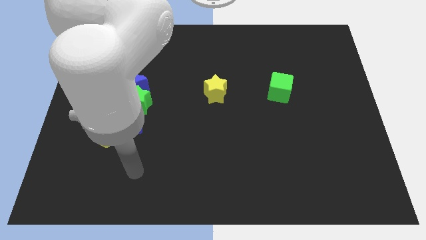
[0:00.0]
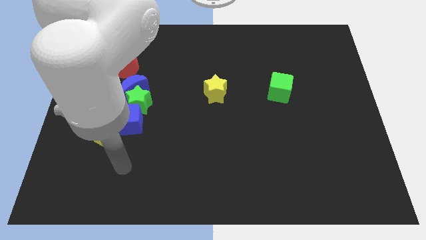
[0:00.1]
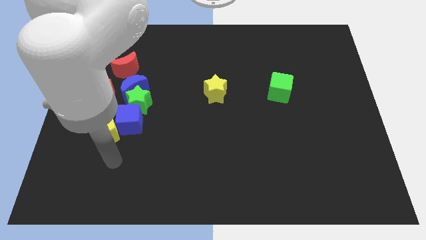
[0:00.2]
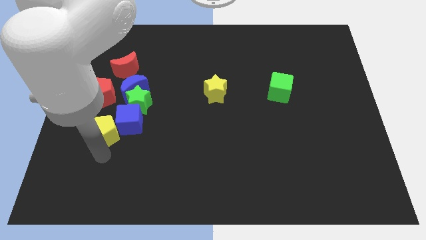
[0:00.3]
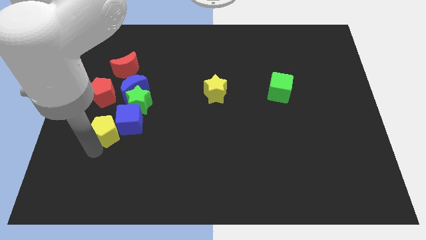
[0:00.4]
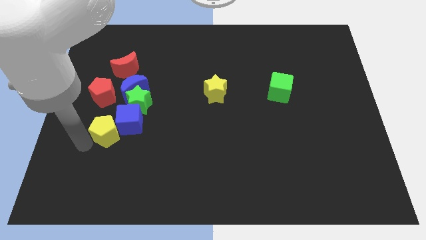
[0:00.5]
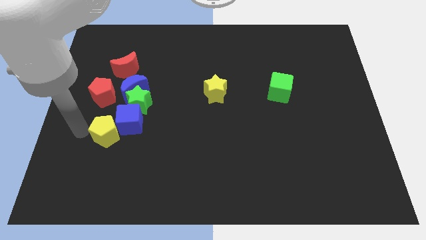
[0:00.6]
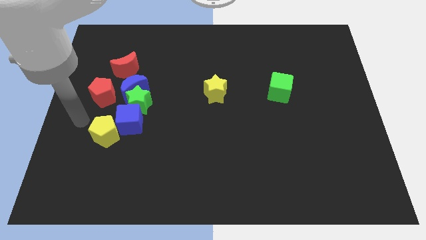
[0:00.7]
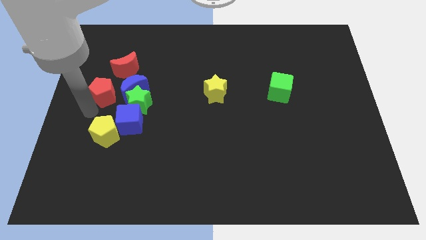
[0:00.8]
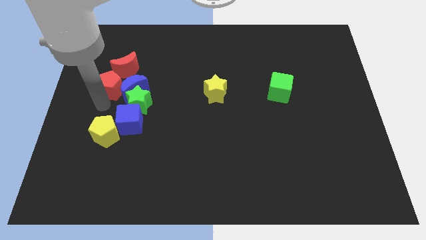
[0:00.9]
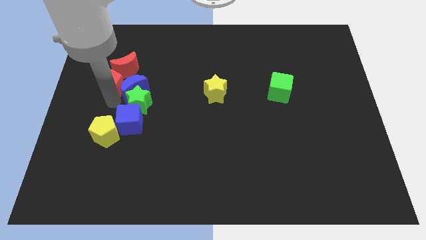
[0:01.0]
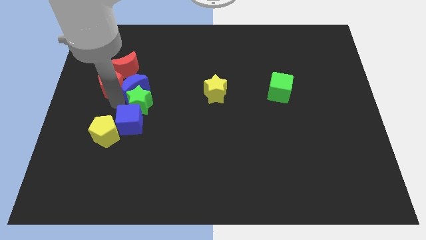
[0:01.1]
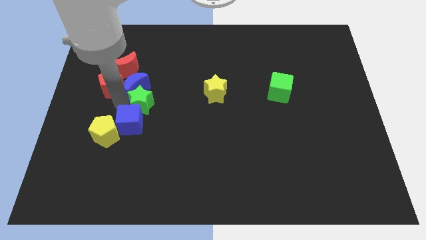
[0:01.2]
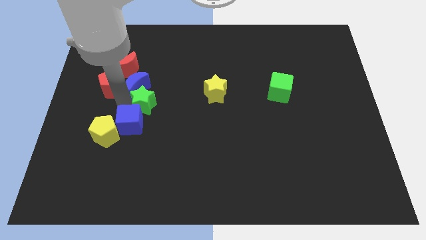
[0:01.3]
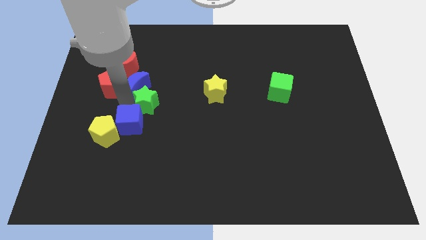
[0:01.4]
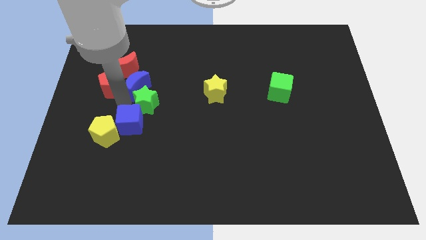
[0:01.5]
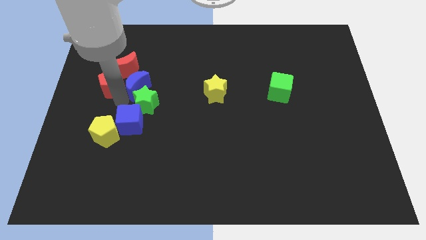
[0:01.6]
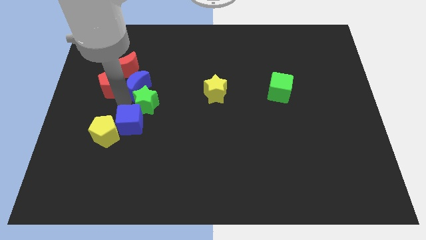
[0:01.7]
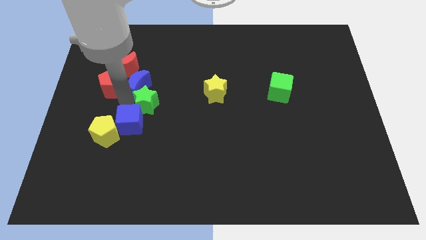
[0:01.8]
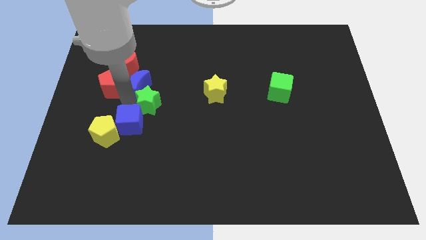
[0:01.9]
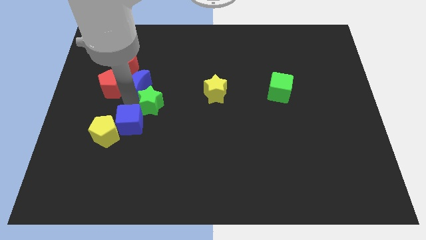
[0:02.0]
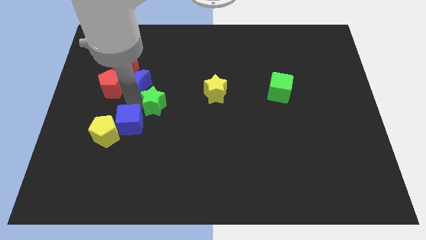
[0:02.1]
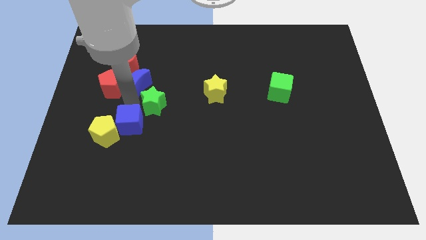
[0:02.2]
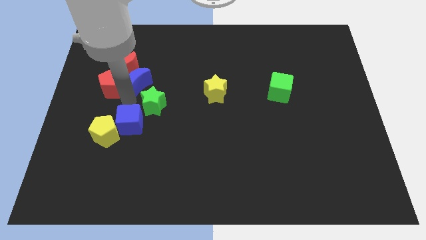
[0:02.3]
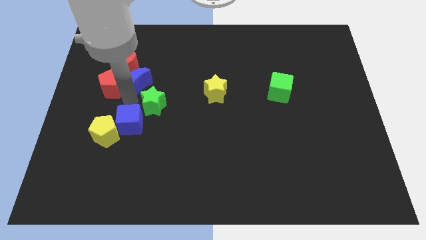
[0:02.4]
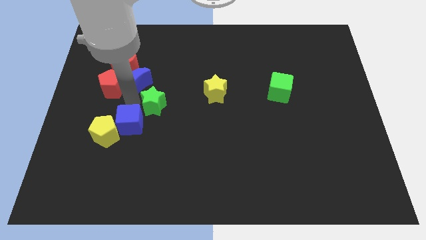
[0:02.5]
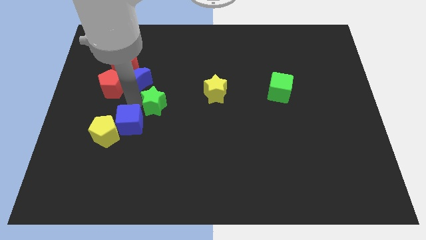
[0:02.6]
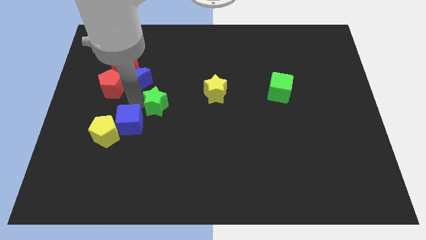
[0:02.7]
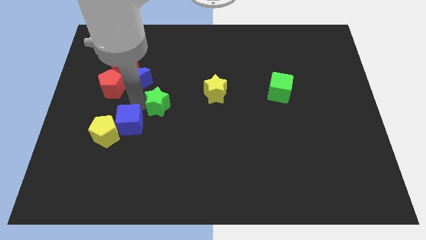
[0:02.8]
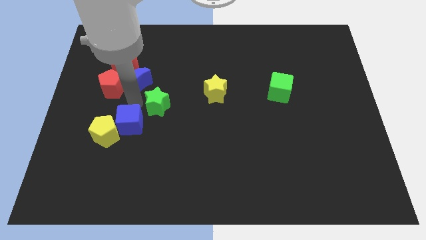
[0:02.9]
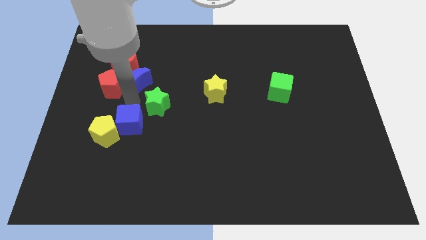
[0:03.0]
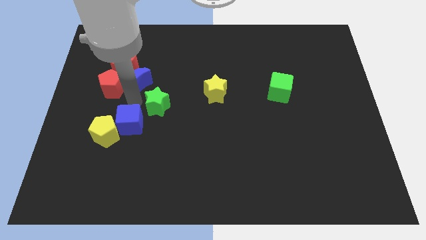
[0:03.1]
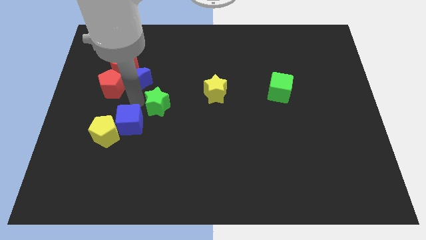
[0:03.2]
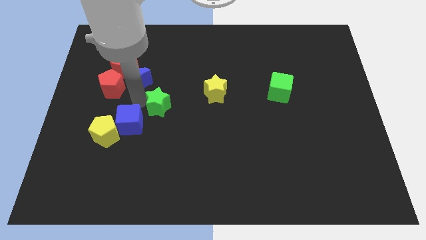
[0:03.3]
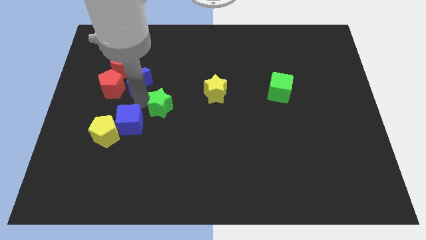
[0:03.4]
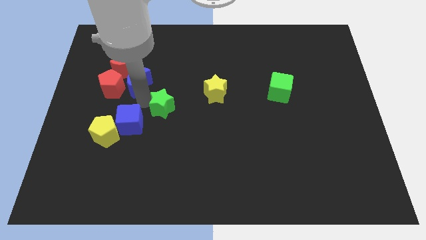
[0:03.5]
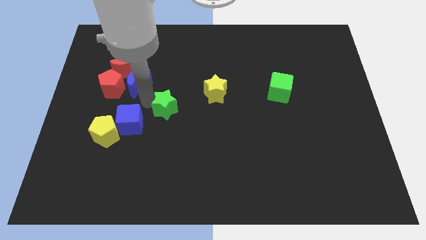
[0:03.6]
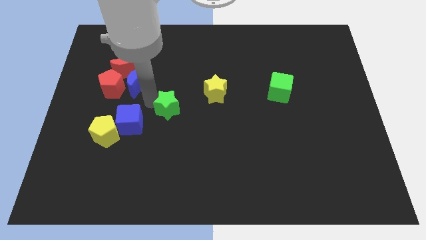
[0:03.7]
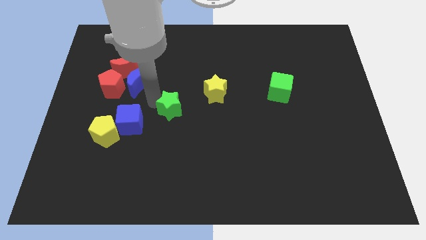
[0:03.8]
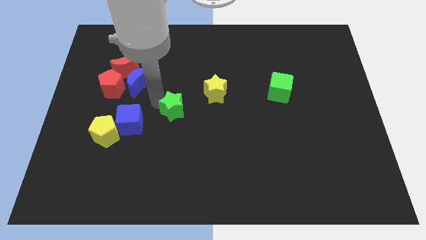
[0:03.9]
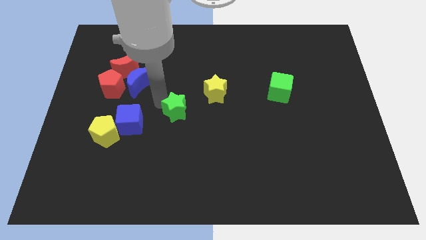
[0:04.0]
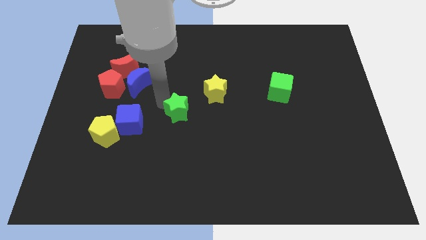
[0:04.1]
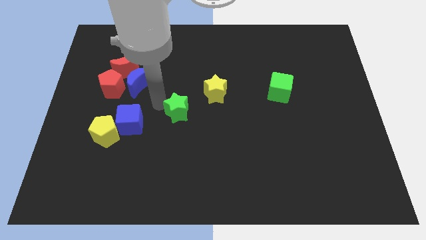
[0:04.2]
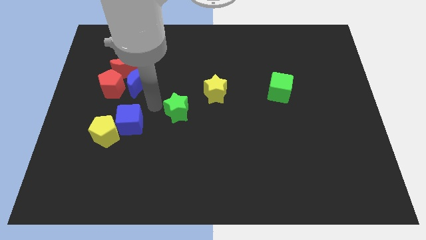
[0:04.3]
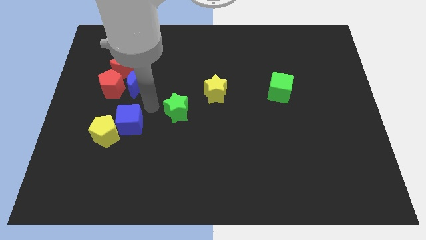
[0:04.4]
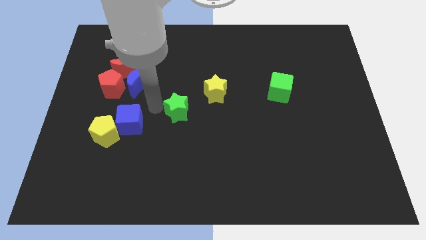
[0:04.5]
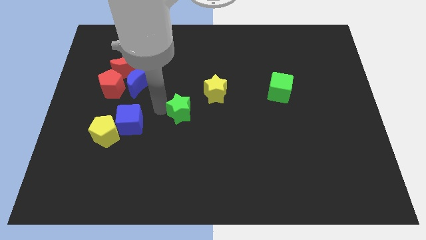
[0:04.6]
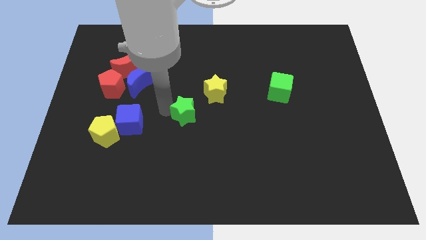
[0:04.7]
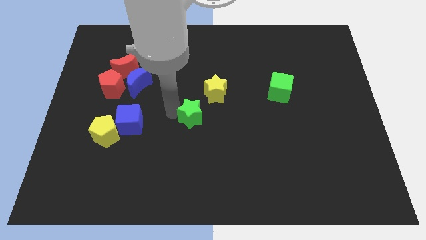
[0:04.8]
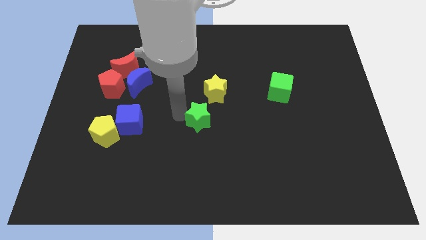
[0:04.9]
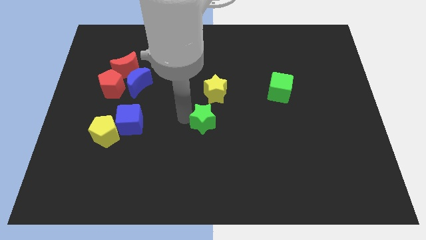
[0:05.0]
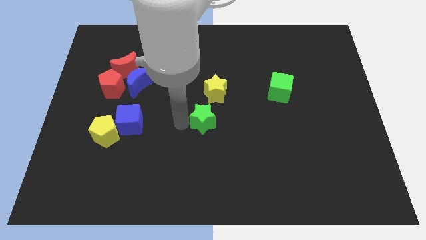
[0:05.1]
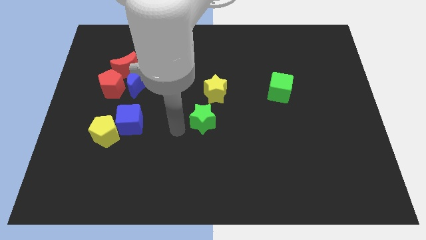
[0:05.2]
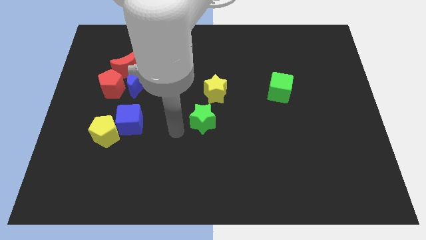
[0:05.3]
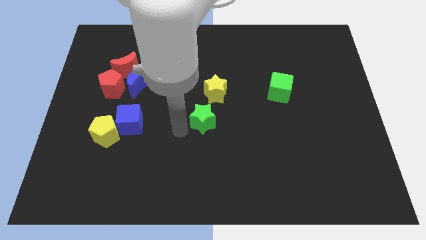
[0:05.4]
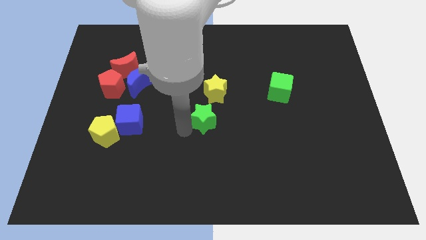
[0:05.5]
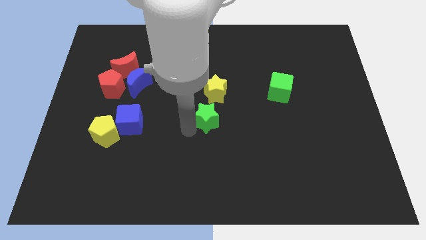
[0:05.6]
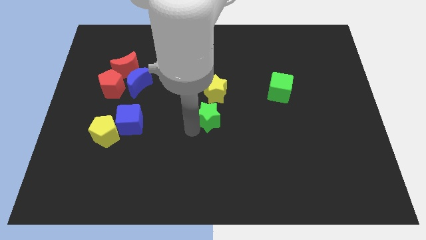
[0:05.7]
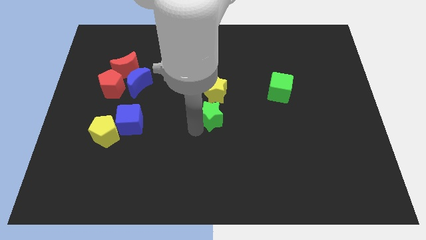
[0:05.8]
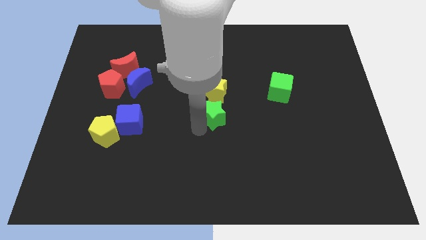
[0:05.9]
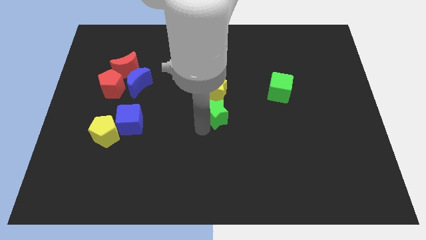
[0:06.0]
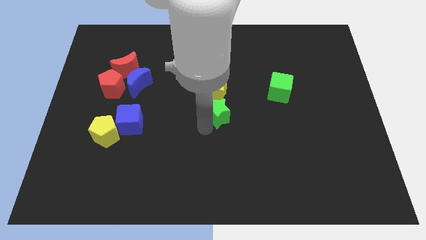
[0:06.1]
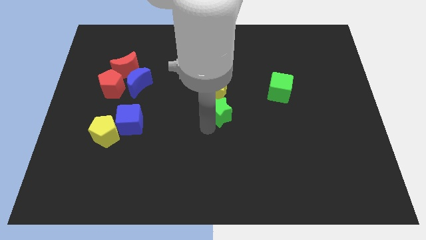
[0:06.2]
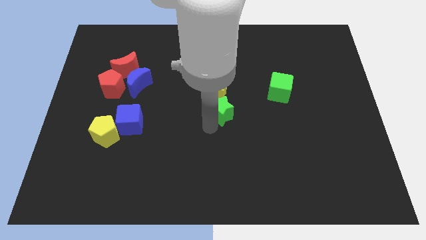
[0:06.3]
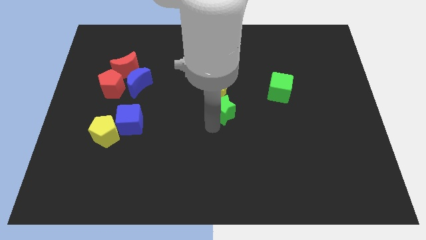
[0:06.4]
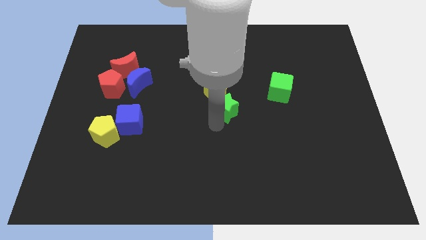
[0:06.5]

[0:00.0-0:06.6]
push the green star right

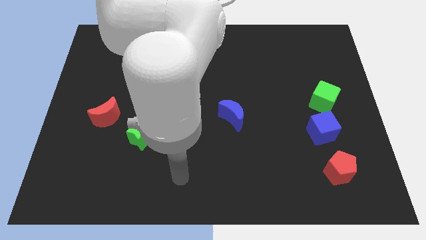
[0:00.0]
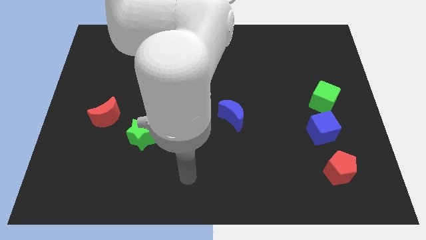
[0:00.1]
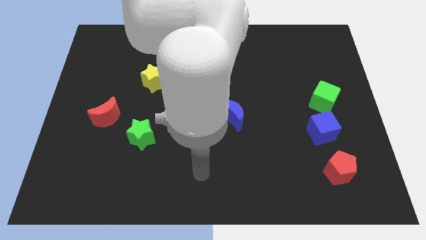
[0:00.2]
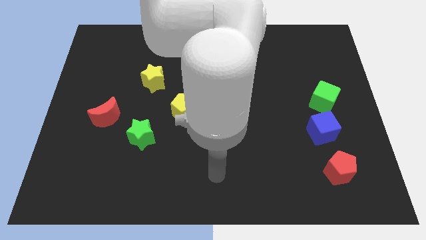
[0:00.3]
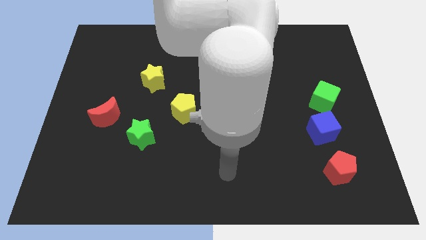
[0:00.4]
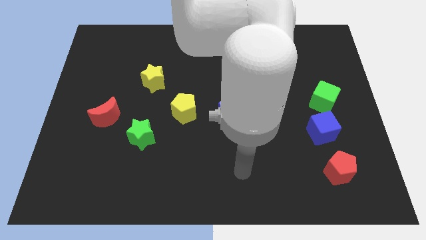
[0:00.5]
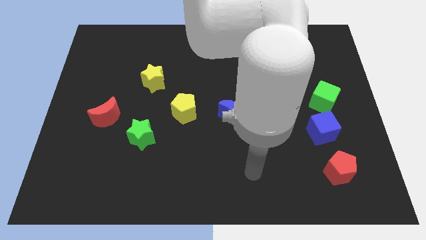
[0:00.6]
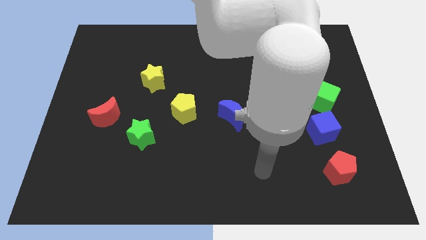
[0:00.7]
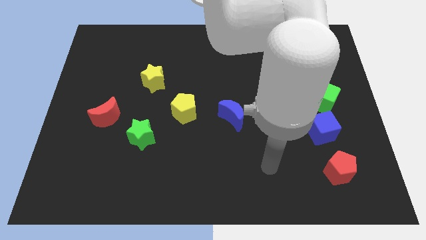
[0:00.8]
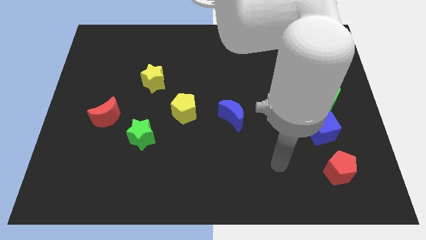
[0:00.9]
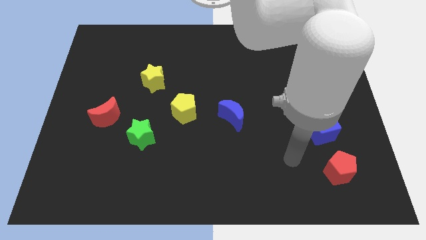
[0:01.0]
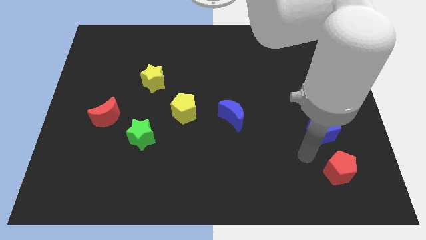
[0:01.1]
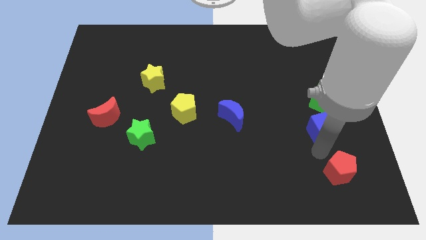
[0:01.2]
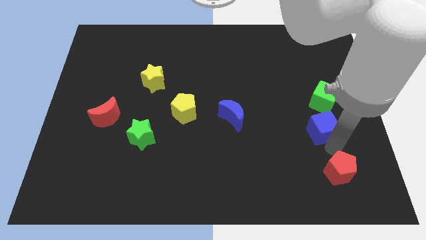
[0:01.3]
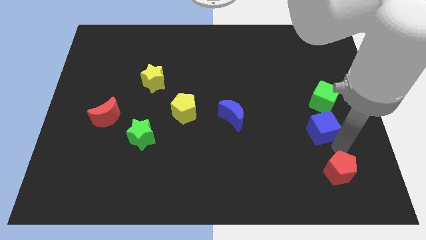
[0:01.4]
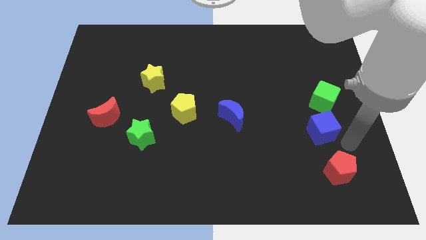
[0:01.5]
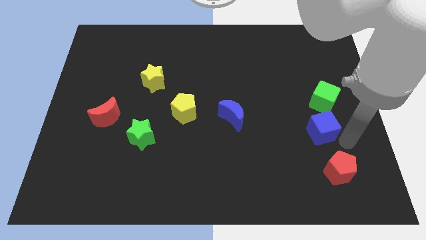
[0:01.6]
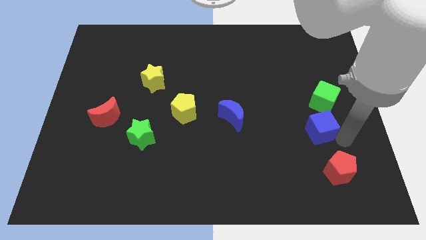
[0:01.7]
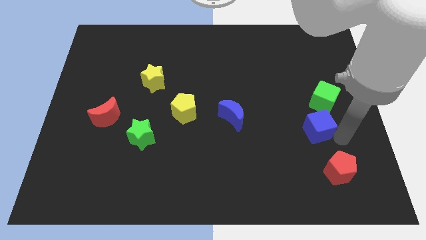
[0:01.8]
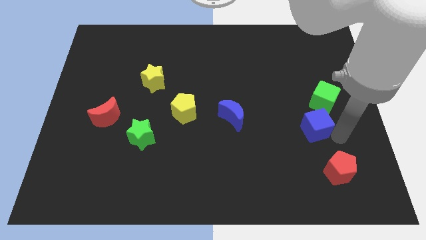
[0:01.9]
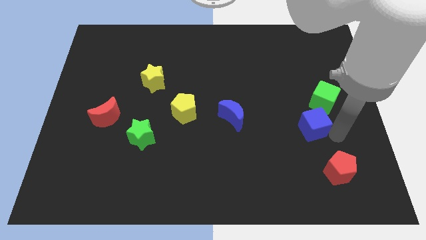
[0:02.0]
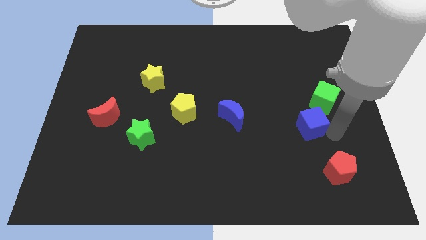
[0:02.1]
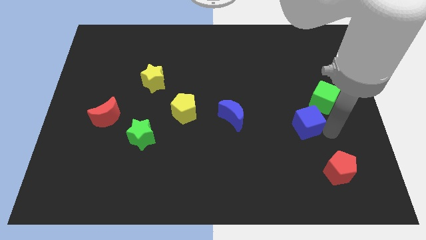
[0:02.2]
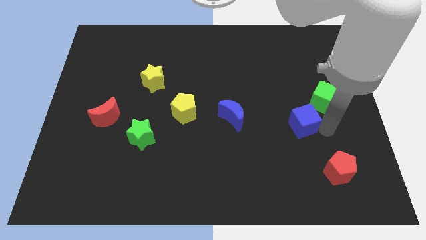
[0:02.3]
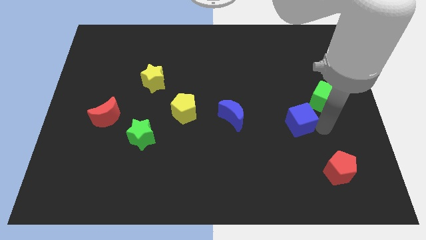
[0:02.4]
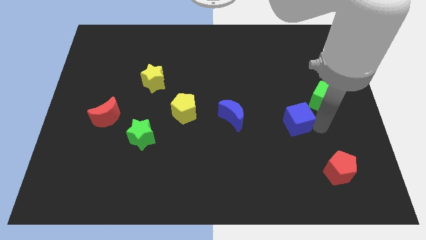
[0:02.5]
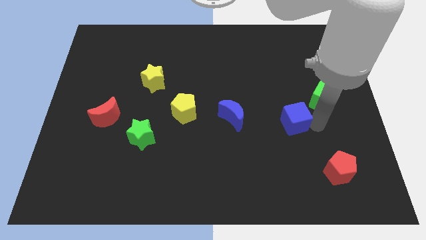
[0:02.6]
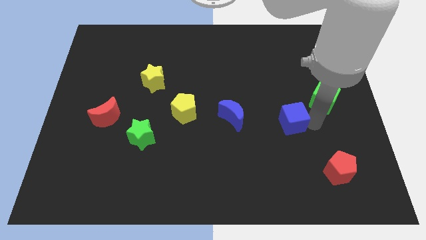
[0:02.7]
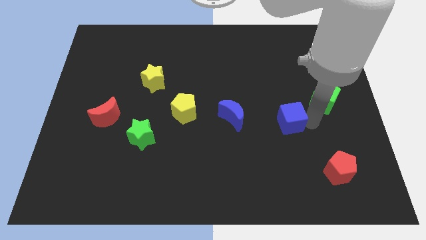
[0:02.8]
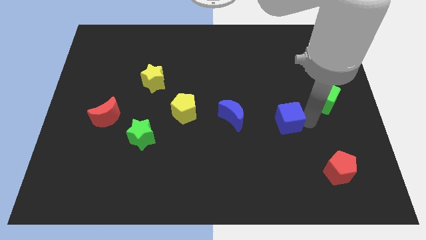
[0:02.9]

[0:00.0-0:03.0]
move the blue cube slightly diagonally up and left
